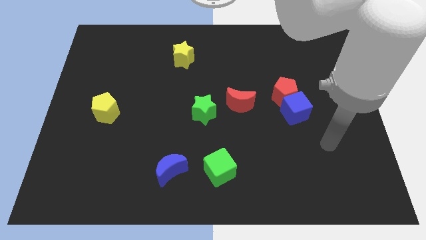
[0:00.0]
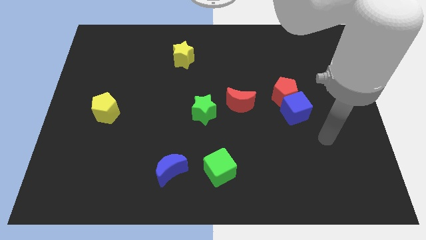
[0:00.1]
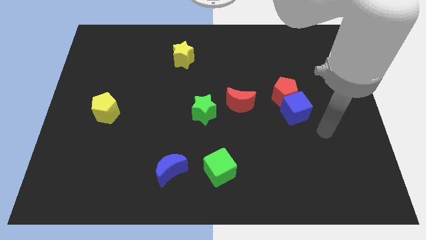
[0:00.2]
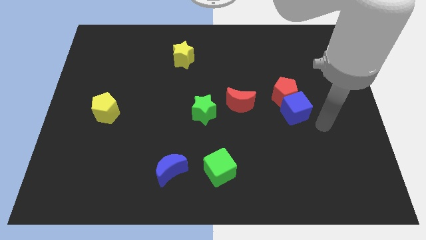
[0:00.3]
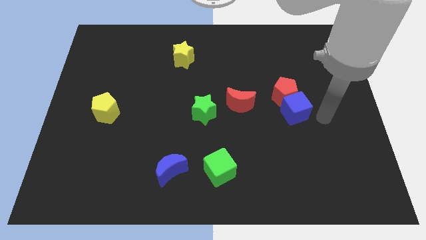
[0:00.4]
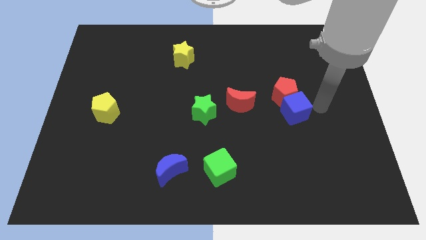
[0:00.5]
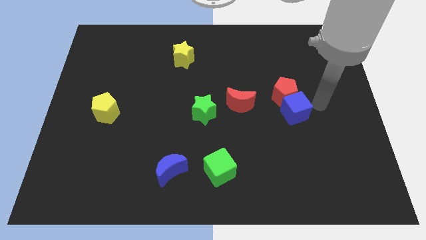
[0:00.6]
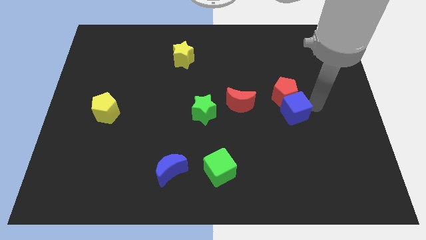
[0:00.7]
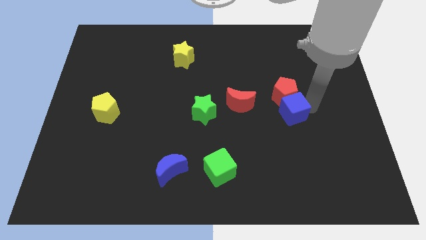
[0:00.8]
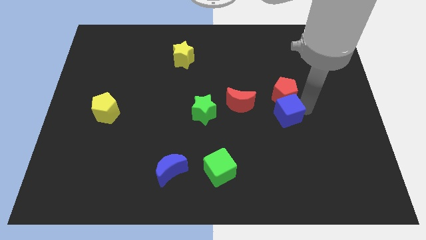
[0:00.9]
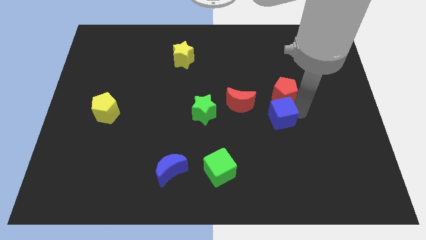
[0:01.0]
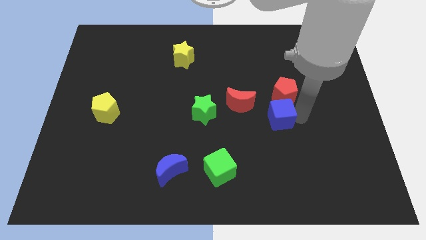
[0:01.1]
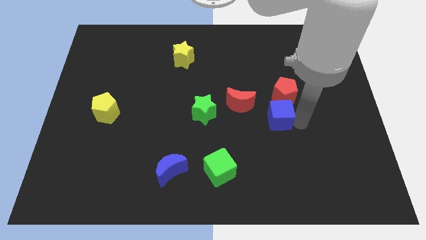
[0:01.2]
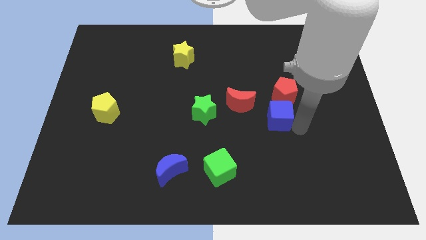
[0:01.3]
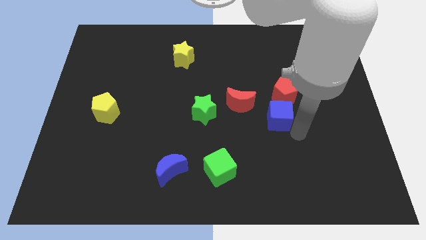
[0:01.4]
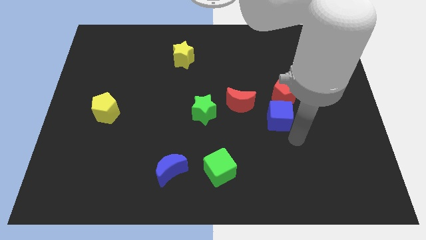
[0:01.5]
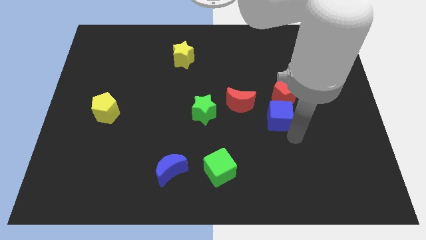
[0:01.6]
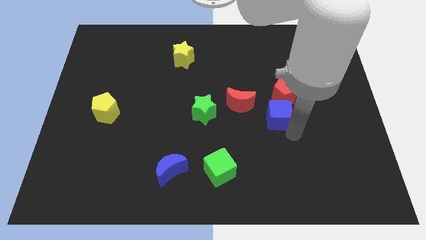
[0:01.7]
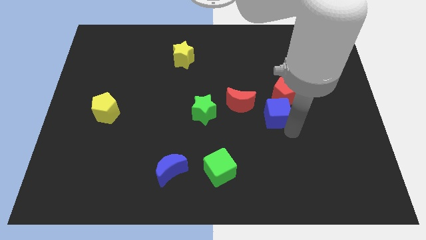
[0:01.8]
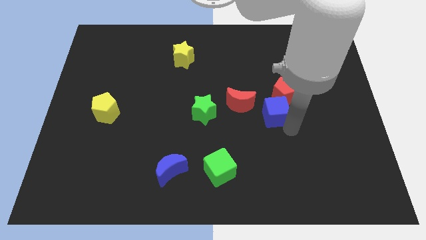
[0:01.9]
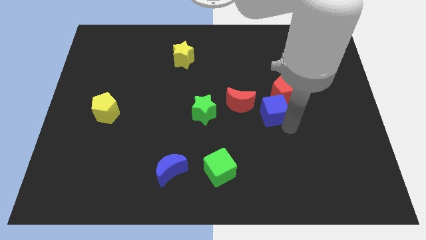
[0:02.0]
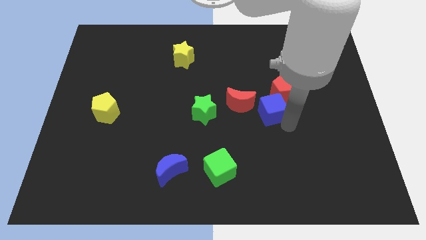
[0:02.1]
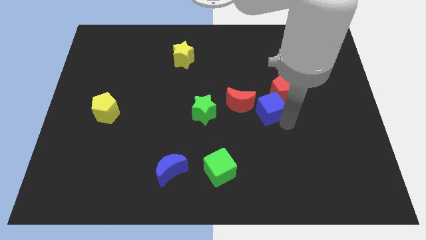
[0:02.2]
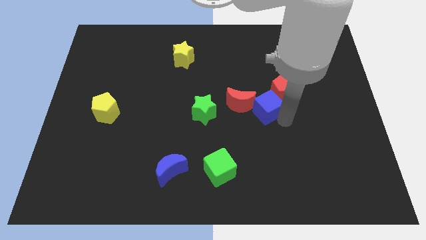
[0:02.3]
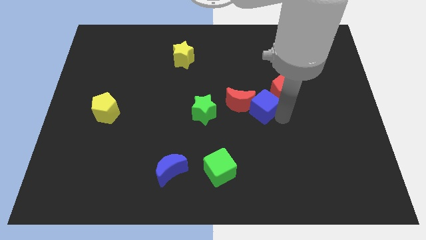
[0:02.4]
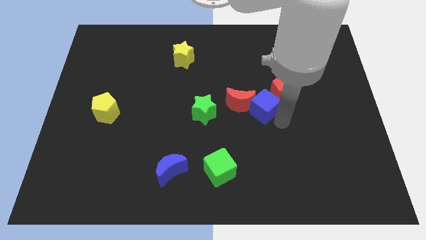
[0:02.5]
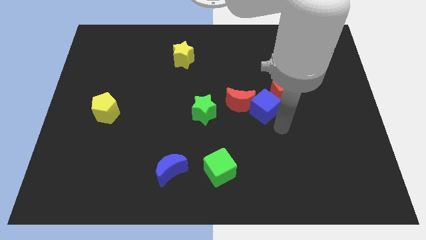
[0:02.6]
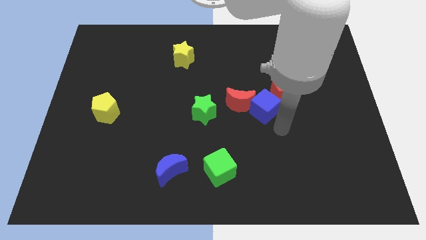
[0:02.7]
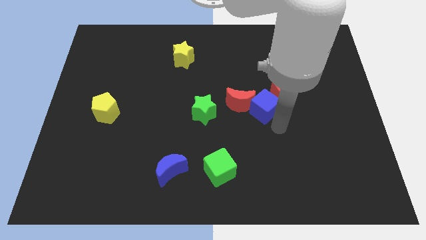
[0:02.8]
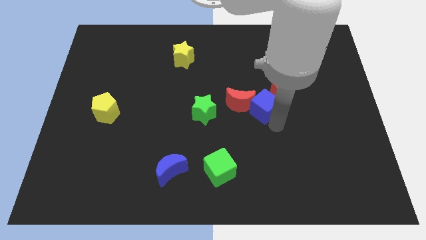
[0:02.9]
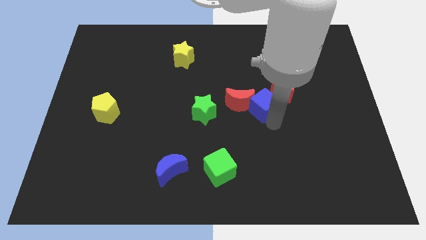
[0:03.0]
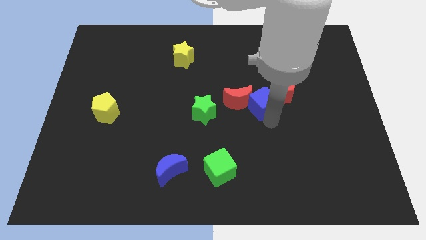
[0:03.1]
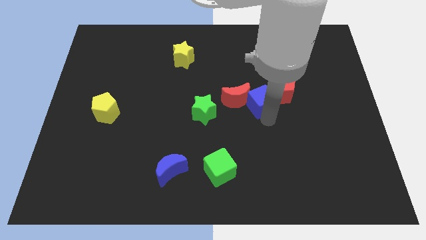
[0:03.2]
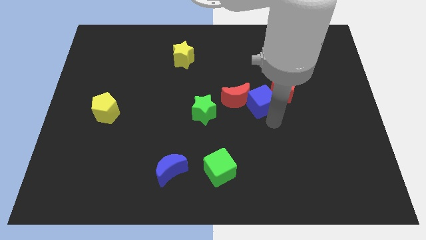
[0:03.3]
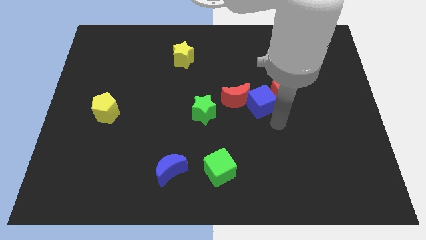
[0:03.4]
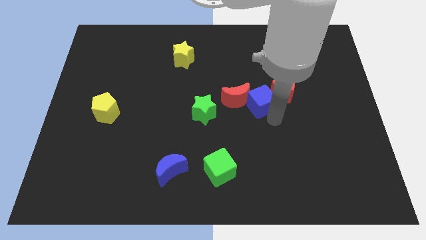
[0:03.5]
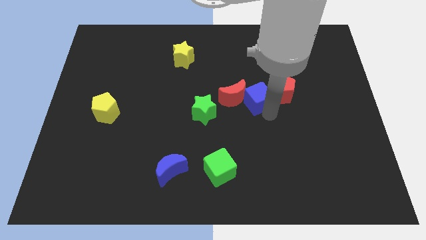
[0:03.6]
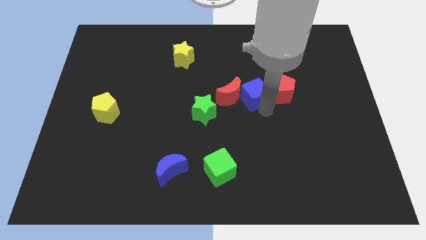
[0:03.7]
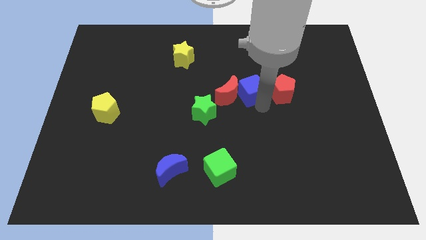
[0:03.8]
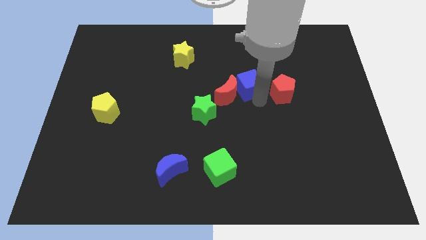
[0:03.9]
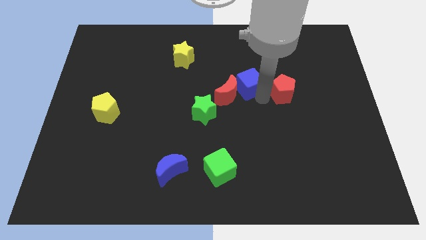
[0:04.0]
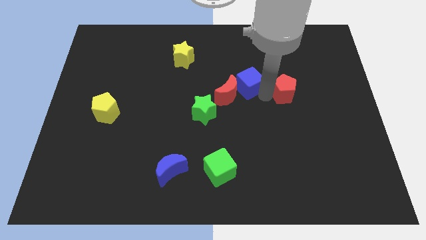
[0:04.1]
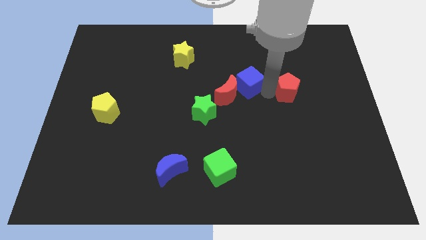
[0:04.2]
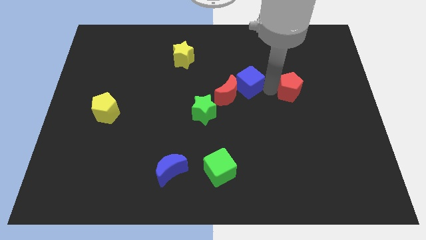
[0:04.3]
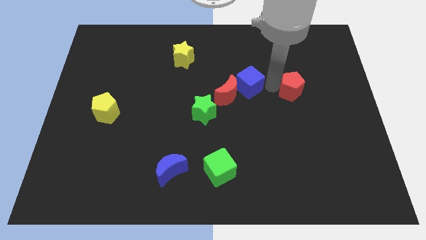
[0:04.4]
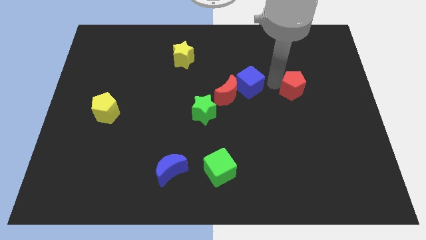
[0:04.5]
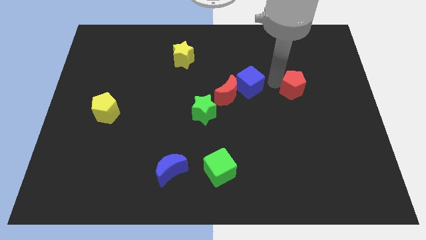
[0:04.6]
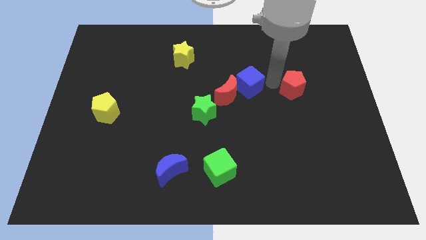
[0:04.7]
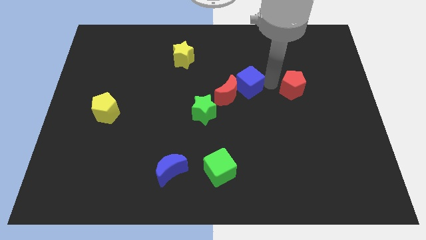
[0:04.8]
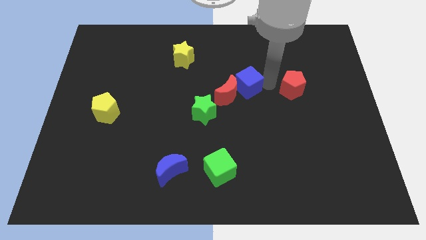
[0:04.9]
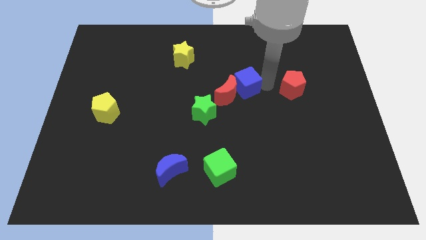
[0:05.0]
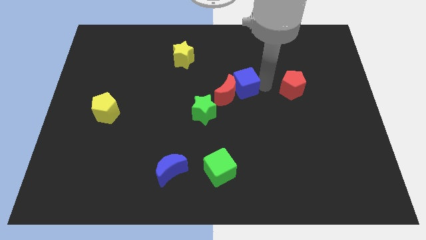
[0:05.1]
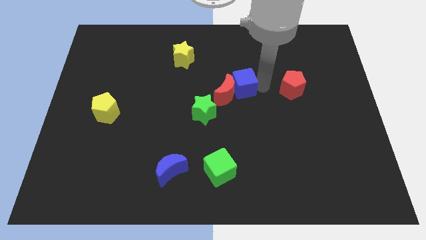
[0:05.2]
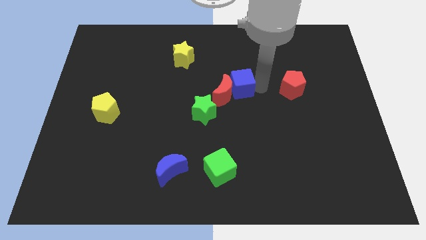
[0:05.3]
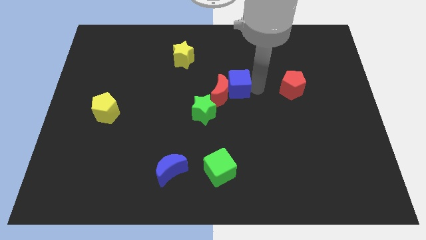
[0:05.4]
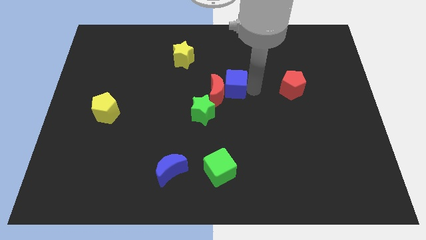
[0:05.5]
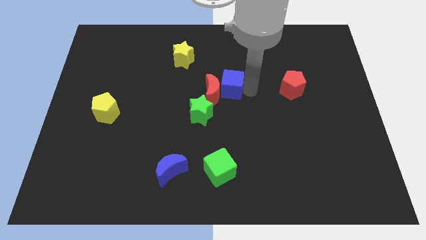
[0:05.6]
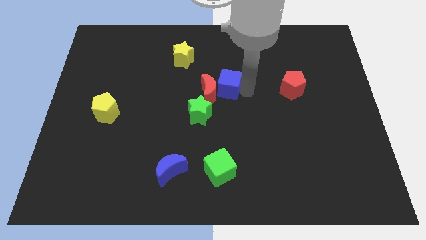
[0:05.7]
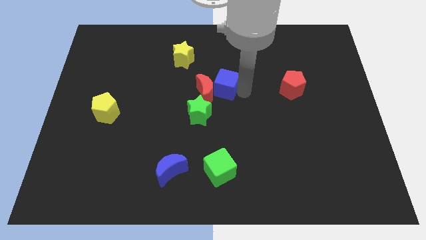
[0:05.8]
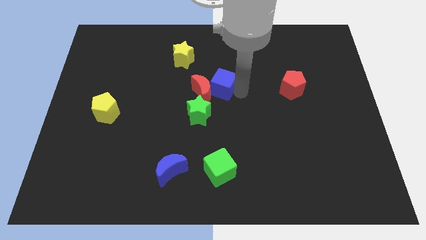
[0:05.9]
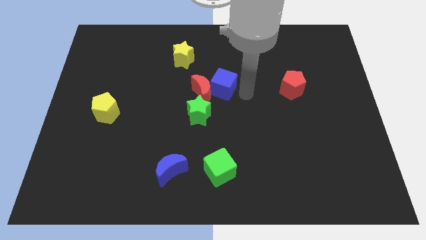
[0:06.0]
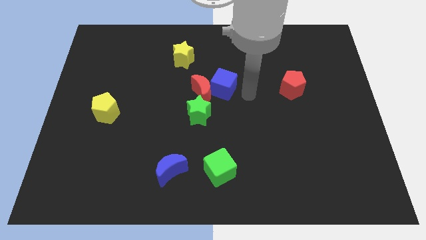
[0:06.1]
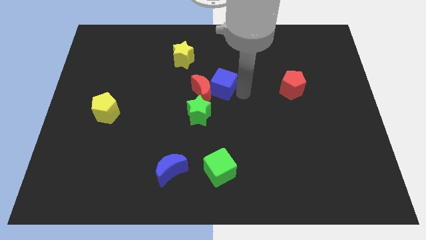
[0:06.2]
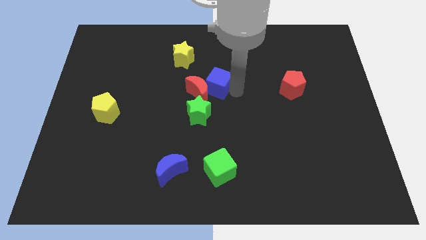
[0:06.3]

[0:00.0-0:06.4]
push the blue cube to the top side of the green star

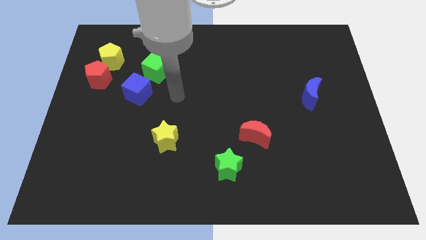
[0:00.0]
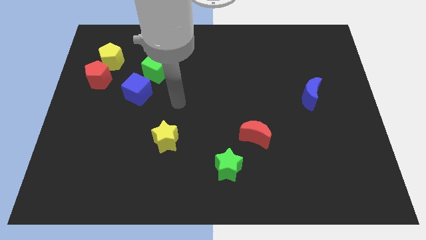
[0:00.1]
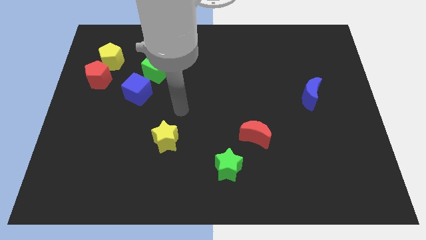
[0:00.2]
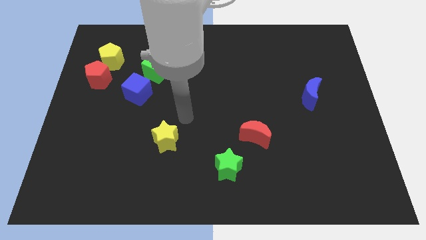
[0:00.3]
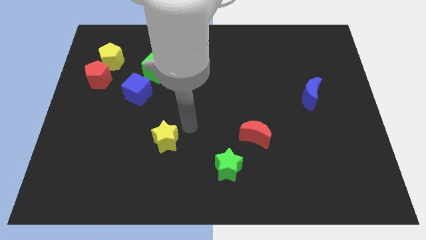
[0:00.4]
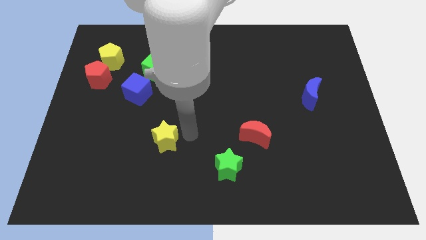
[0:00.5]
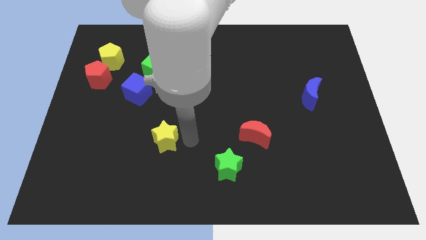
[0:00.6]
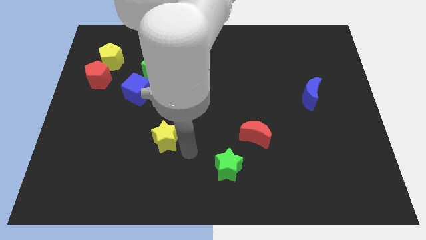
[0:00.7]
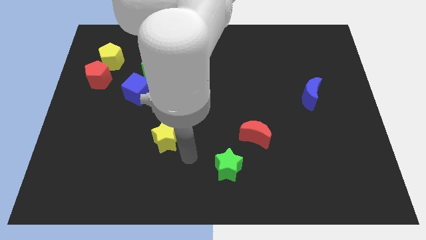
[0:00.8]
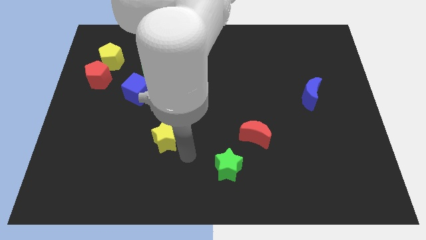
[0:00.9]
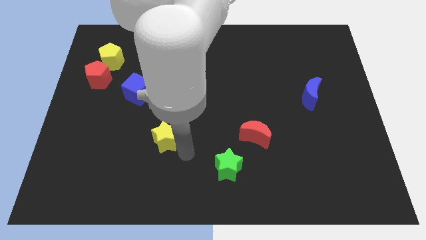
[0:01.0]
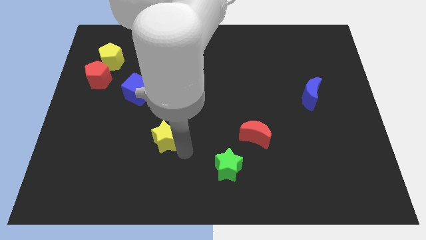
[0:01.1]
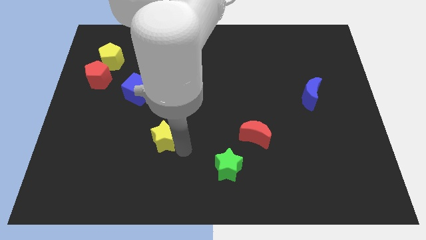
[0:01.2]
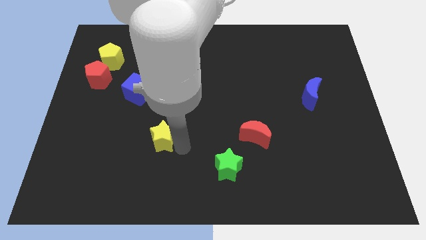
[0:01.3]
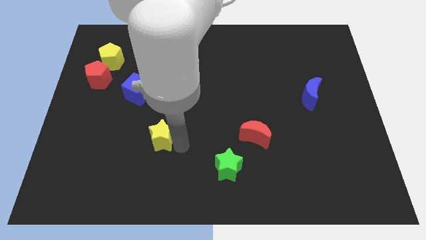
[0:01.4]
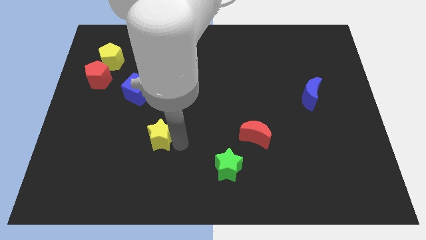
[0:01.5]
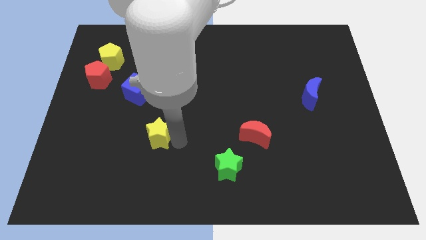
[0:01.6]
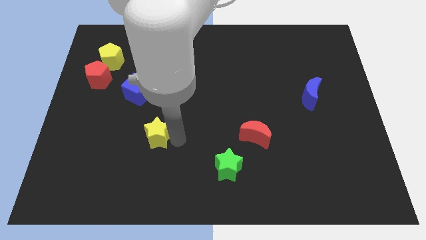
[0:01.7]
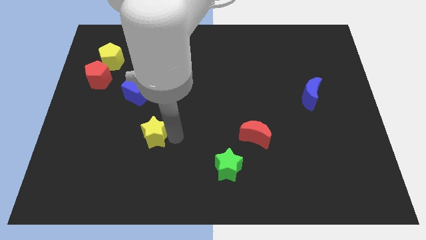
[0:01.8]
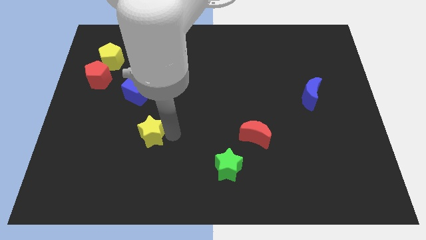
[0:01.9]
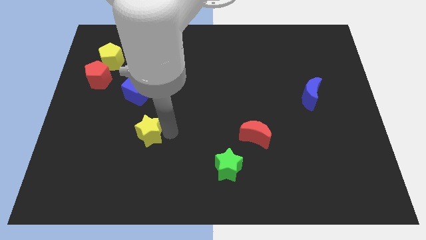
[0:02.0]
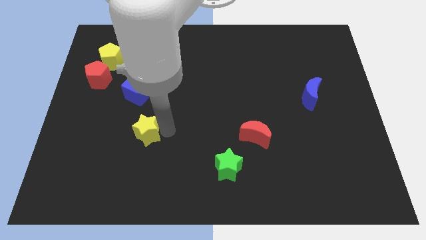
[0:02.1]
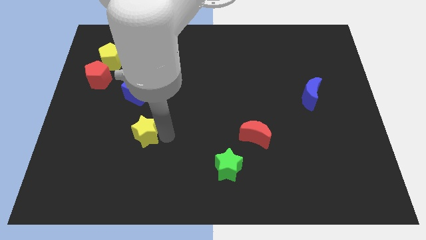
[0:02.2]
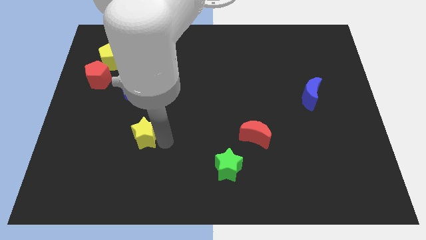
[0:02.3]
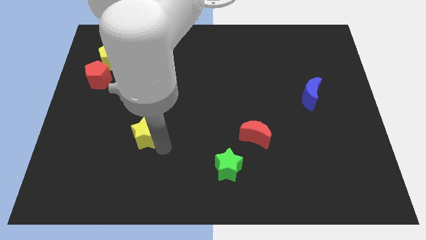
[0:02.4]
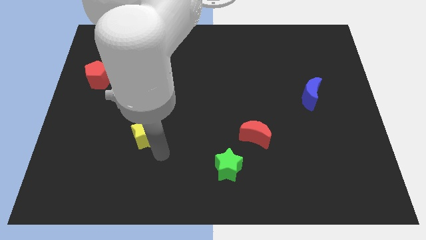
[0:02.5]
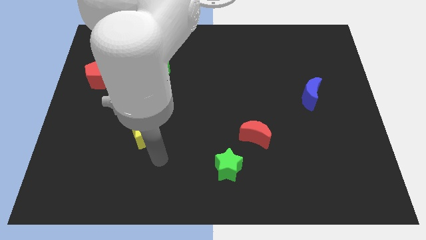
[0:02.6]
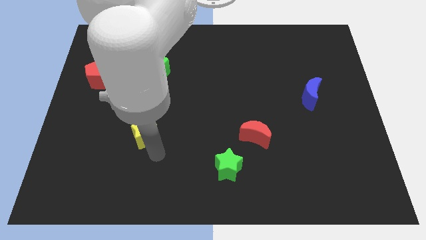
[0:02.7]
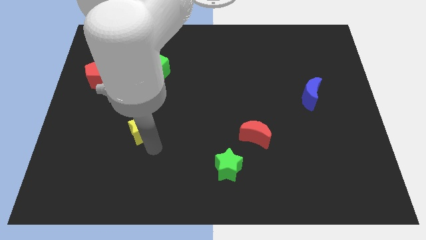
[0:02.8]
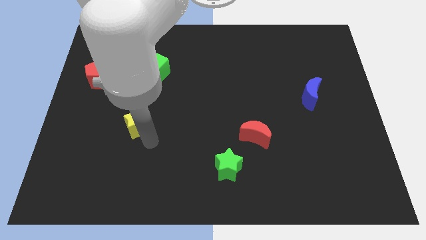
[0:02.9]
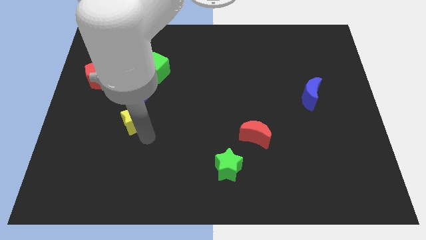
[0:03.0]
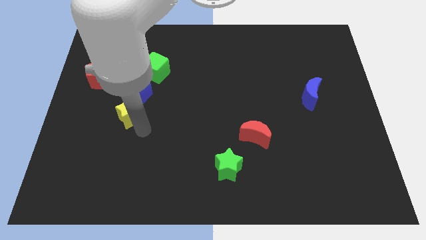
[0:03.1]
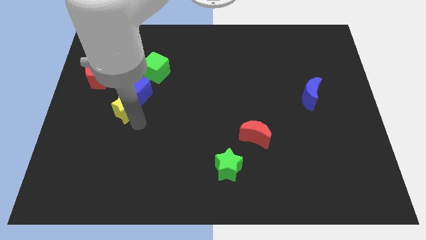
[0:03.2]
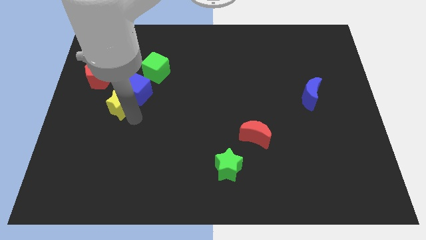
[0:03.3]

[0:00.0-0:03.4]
put the yellow star to the bottom right of the red pentagon
